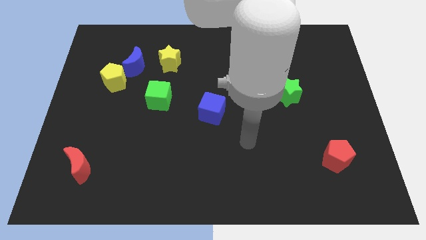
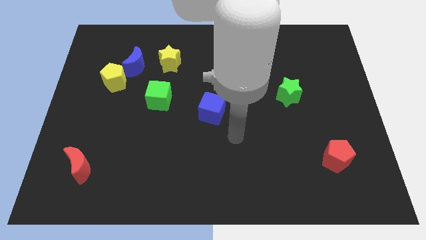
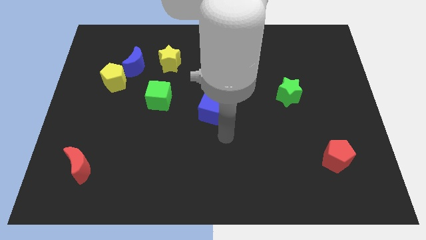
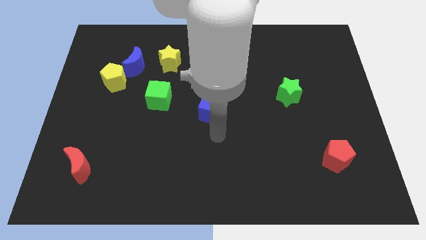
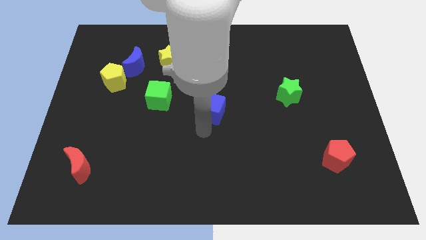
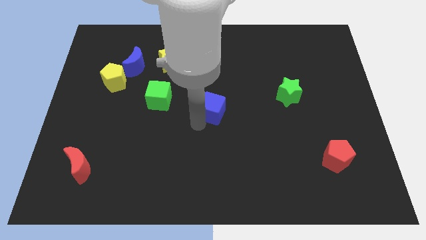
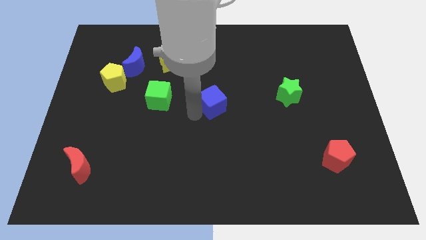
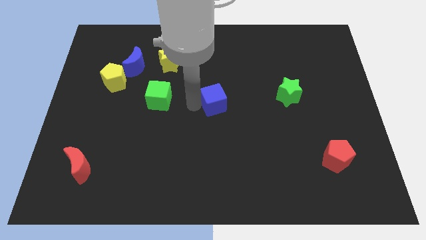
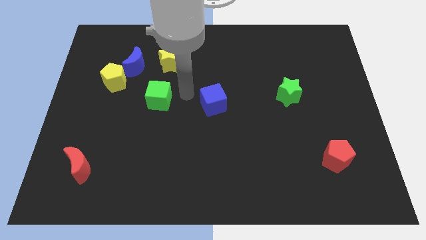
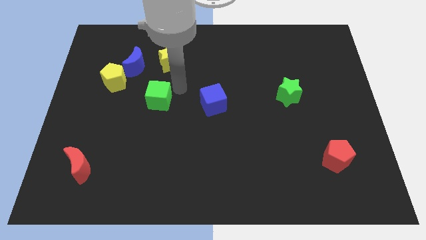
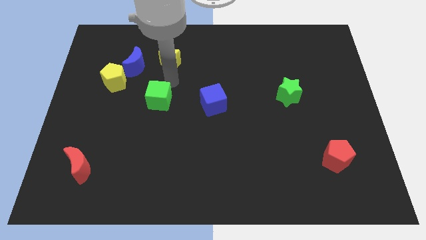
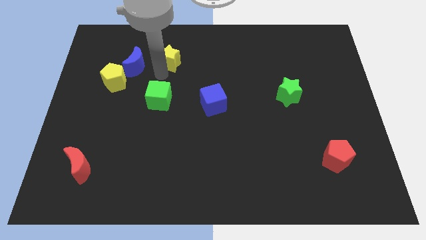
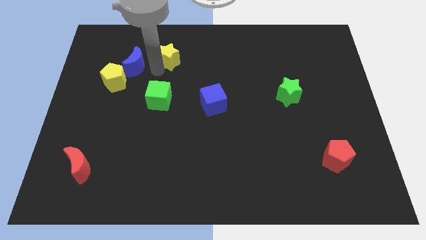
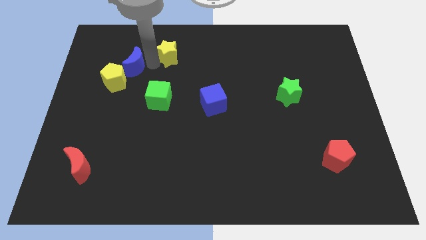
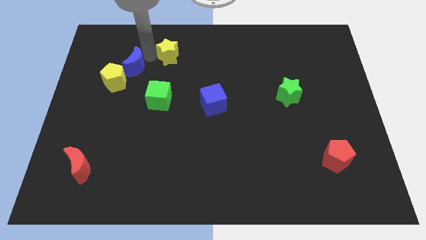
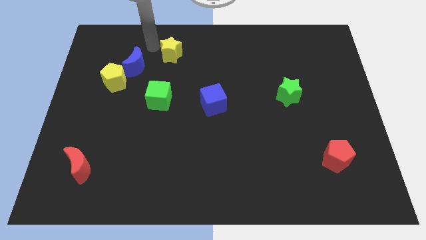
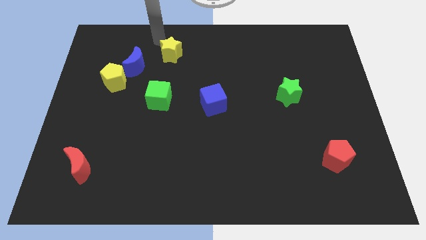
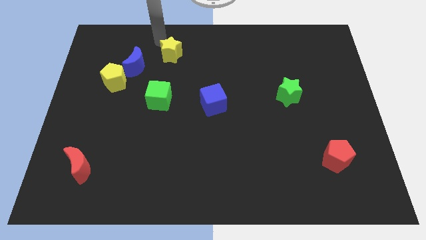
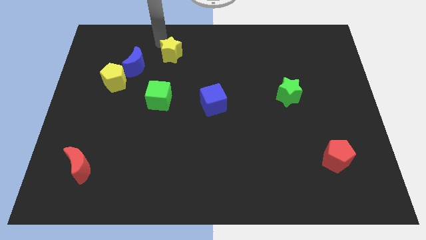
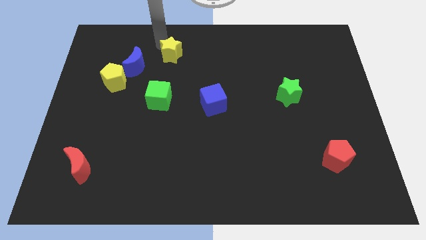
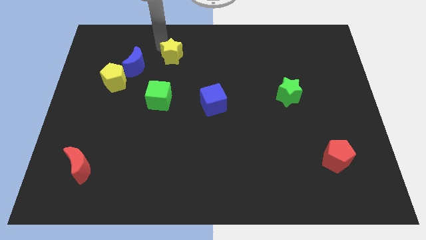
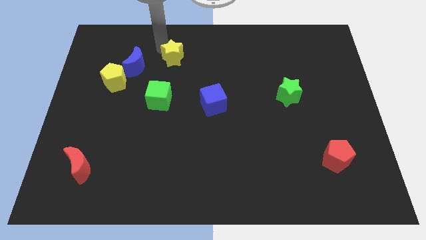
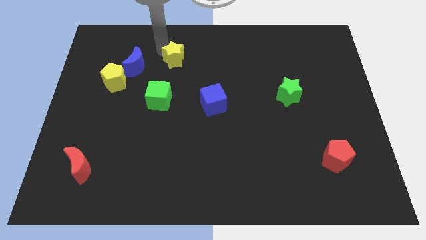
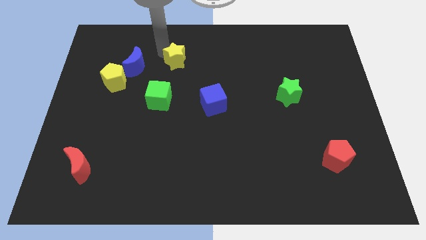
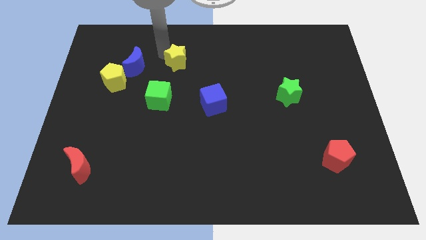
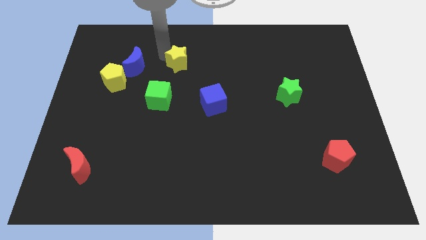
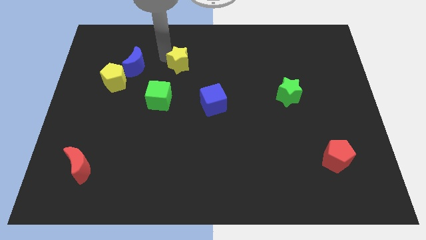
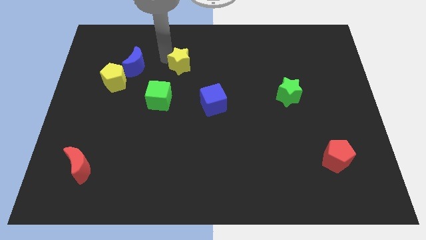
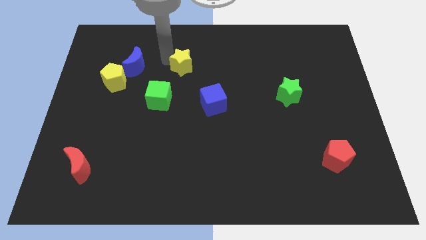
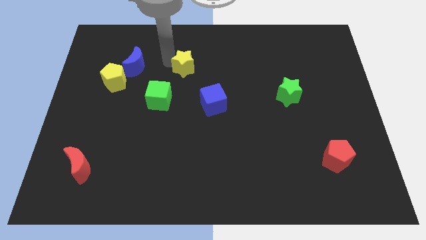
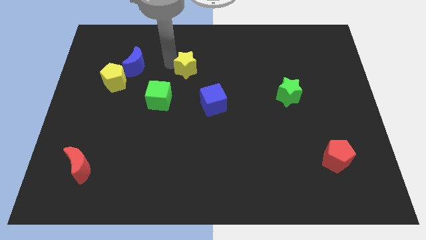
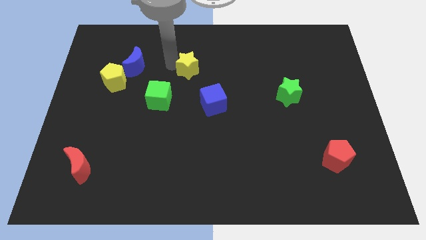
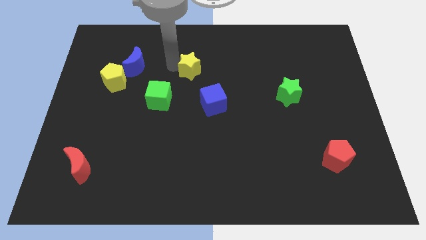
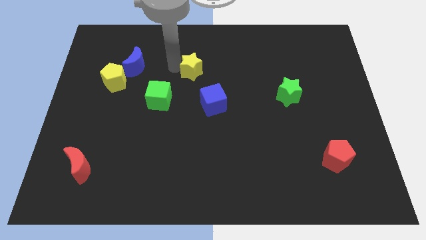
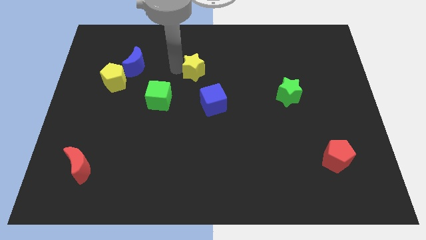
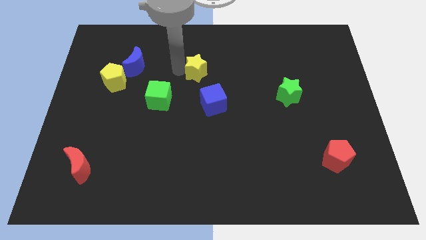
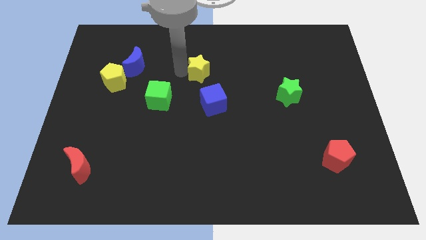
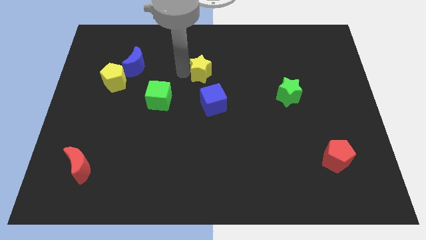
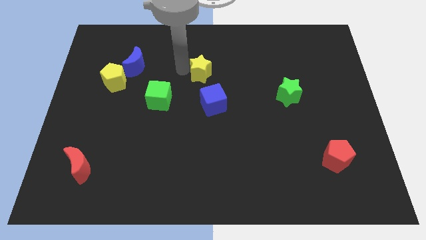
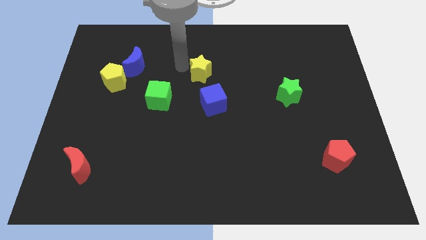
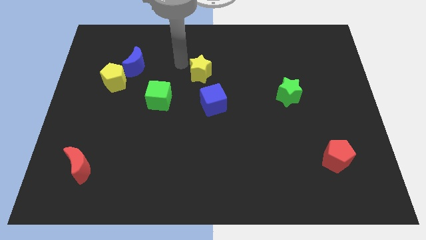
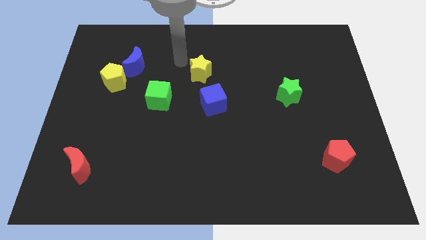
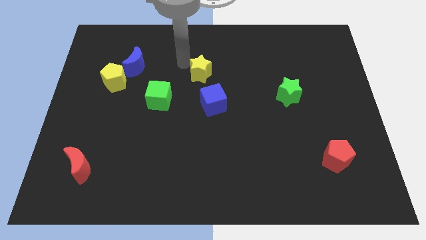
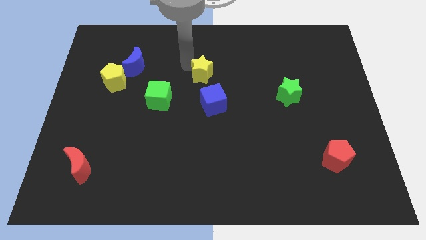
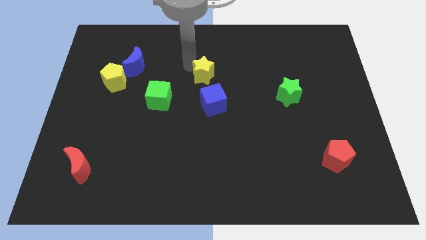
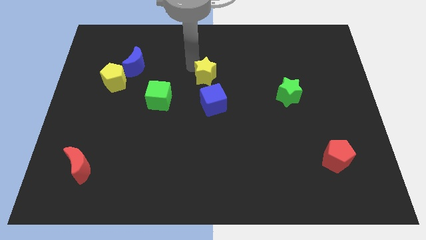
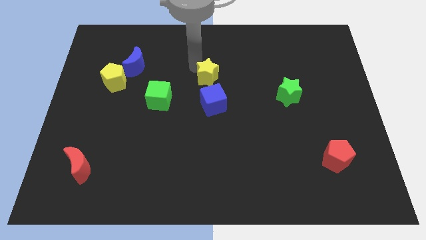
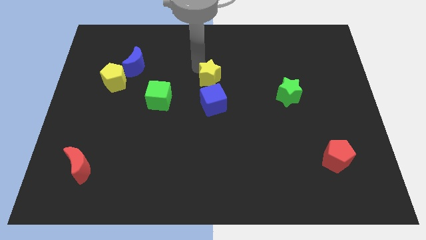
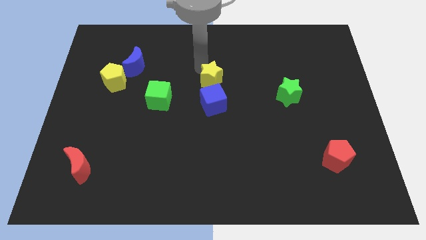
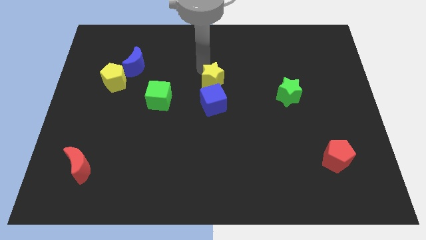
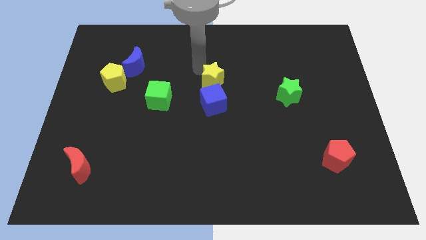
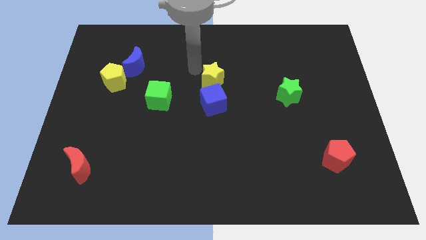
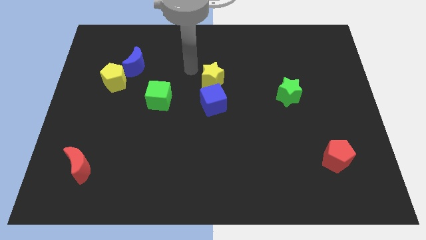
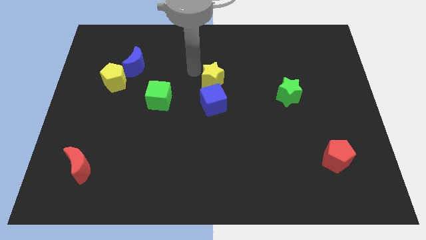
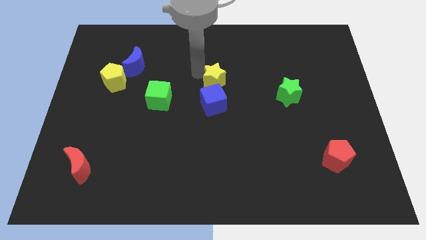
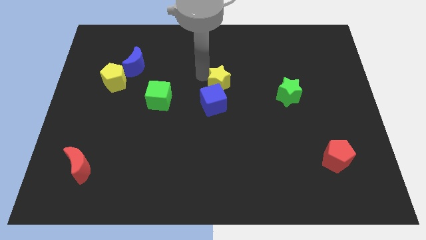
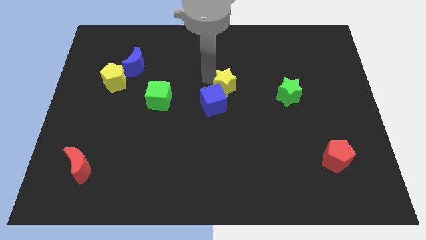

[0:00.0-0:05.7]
put the yellow star left of the green star

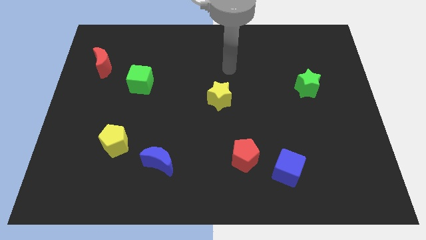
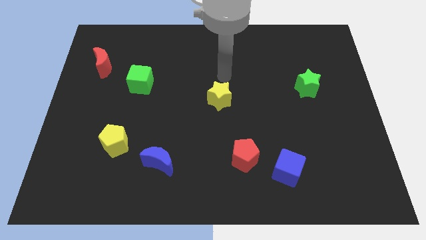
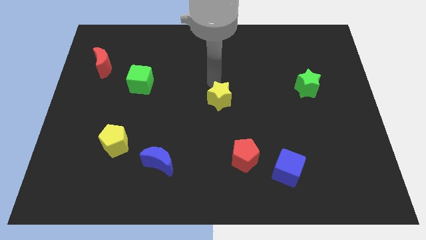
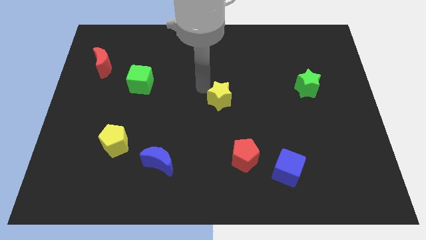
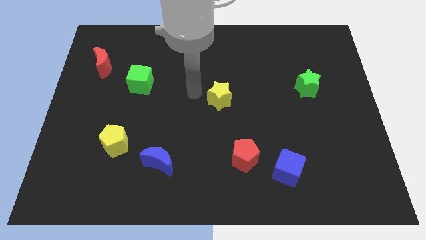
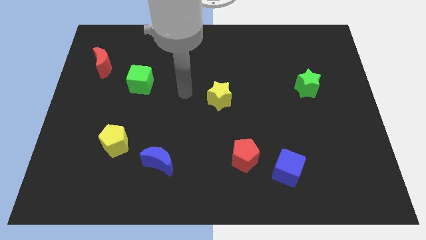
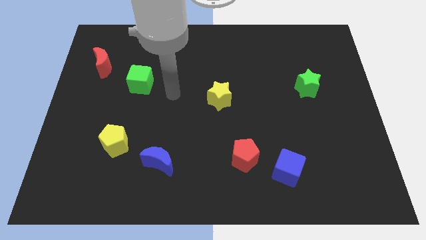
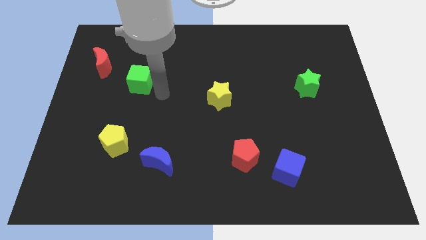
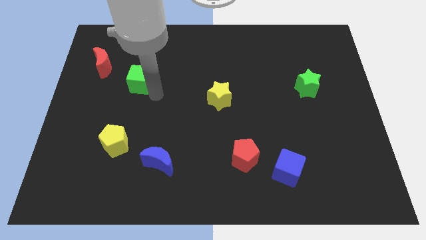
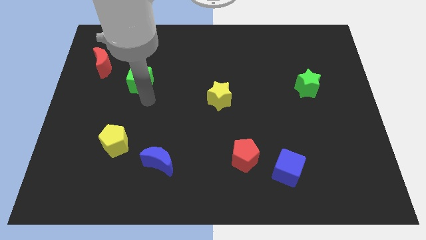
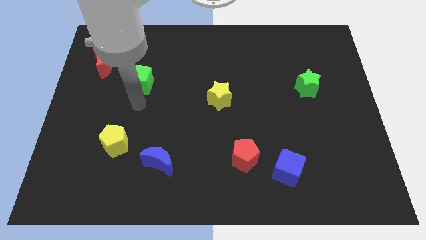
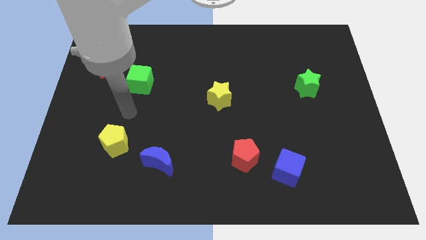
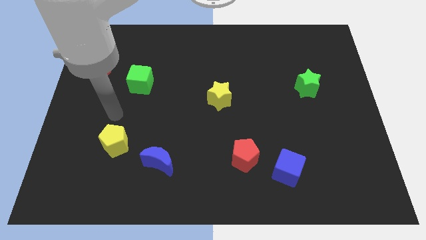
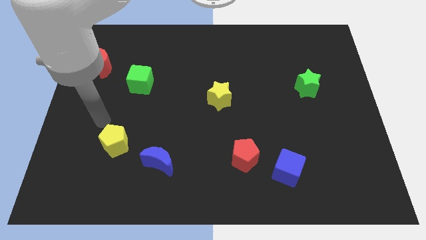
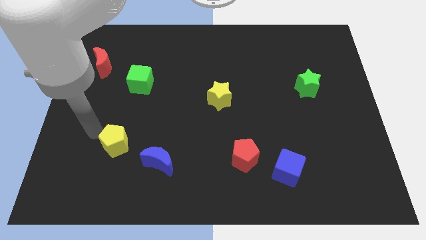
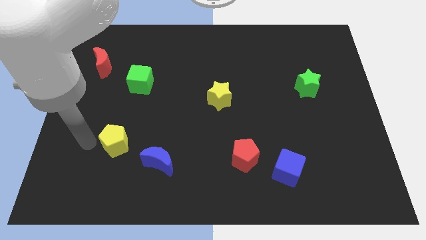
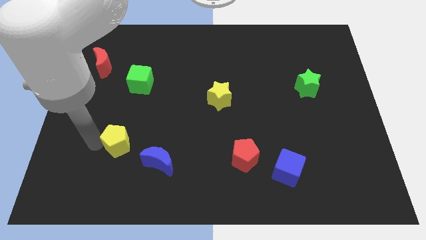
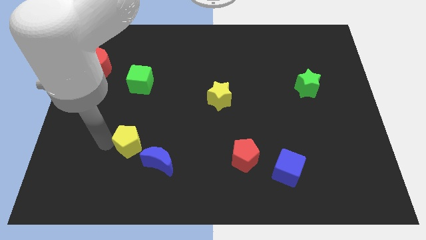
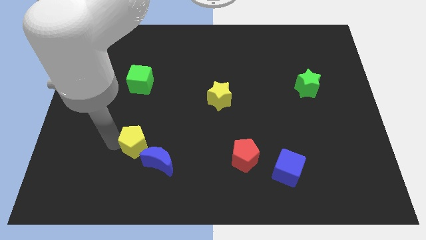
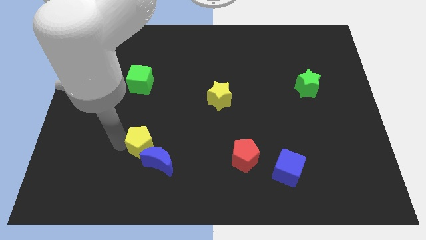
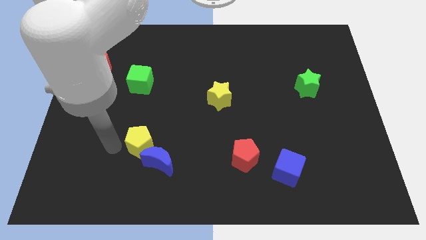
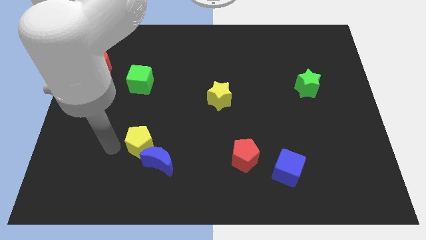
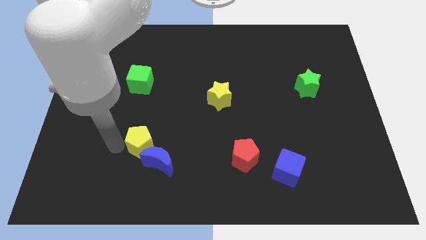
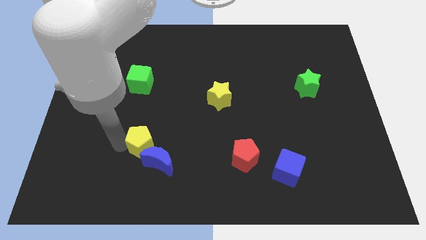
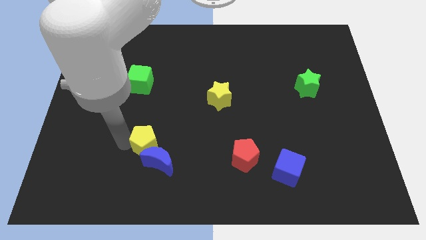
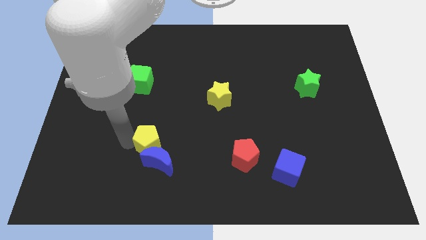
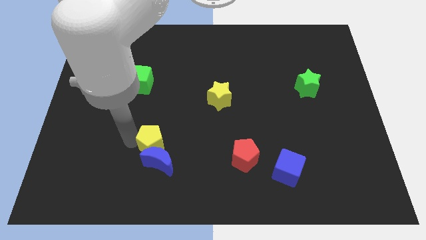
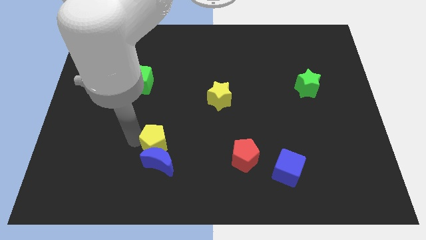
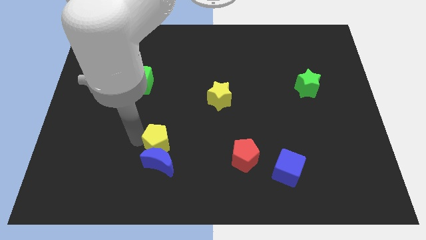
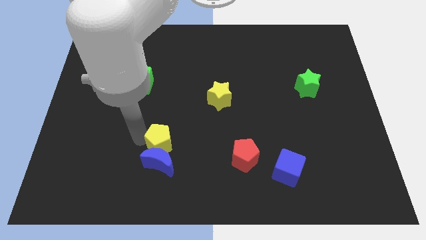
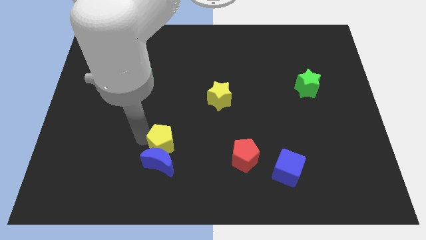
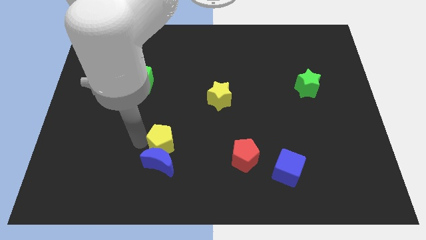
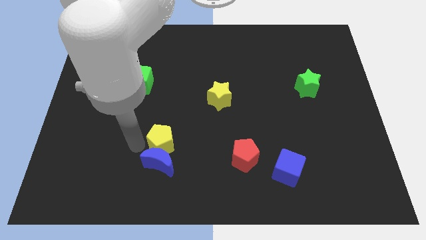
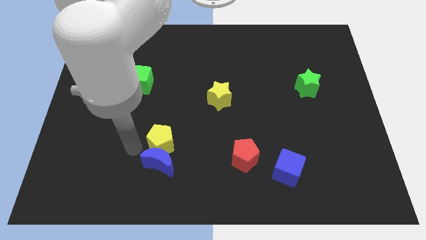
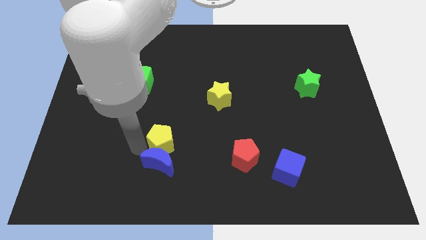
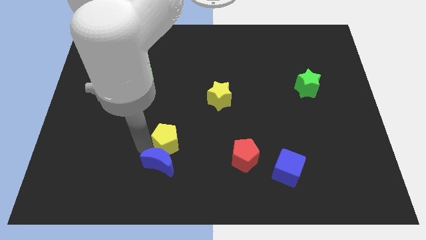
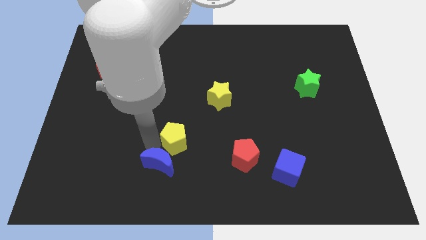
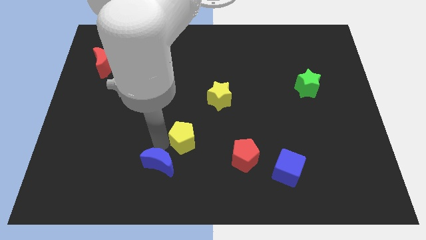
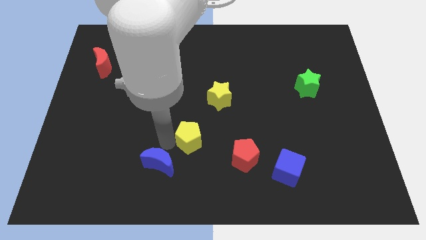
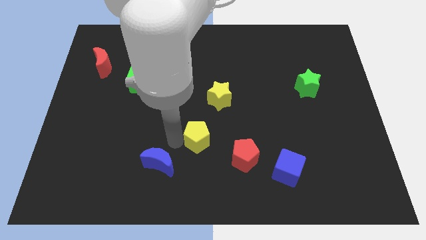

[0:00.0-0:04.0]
push the yellow pentagon to the top left of the red pentagon
